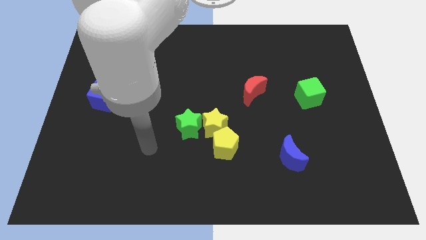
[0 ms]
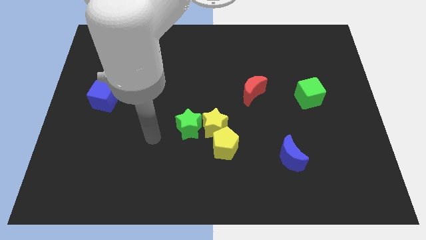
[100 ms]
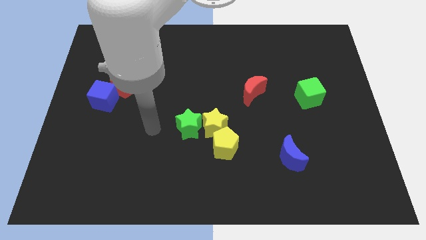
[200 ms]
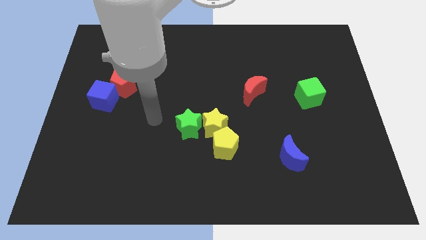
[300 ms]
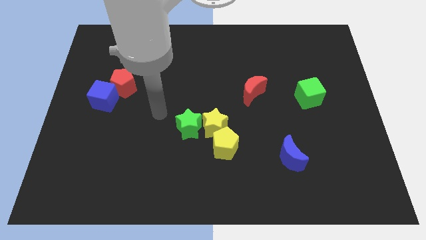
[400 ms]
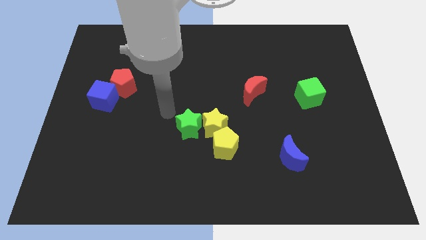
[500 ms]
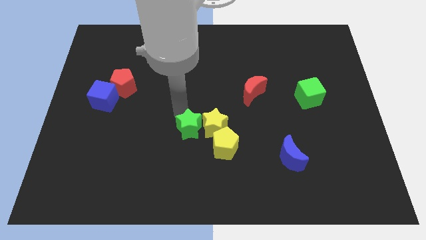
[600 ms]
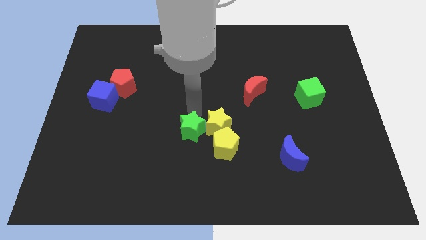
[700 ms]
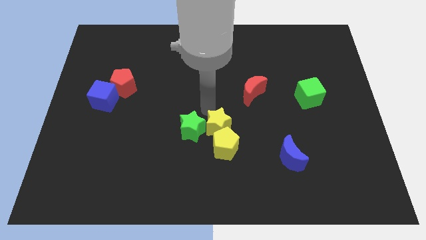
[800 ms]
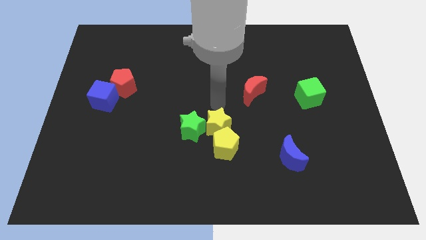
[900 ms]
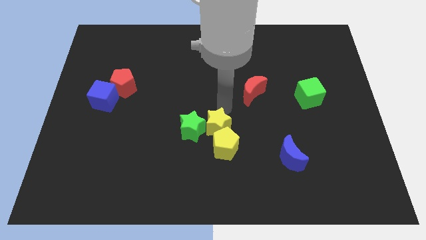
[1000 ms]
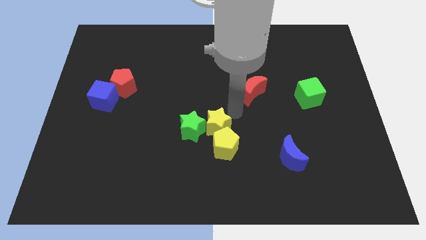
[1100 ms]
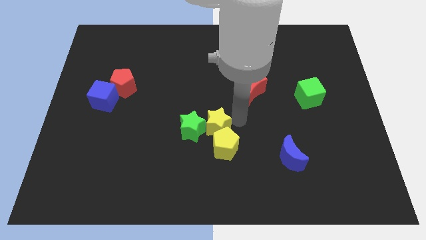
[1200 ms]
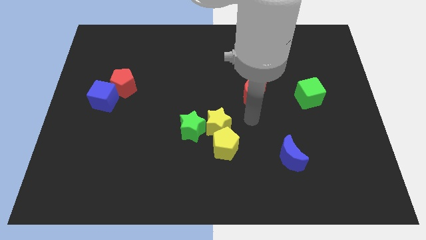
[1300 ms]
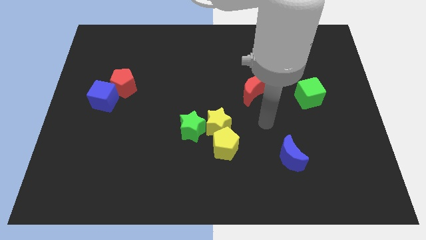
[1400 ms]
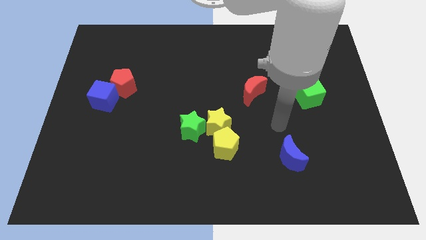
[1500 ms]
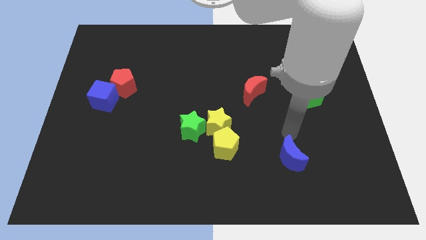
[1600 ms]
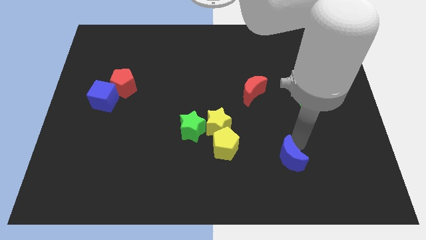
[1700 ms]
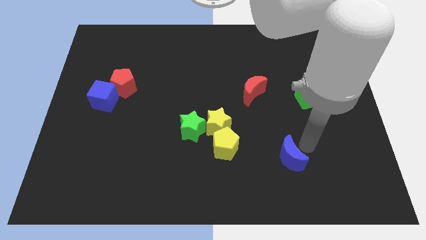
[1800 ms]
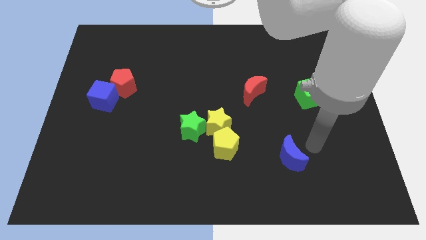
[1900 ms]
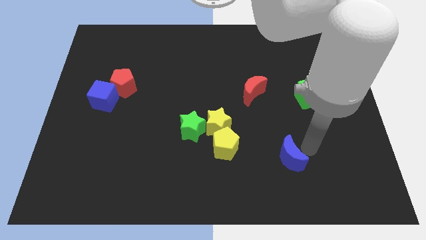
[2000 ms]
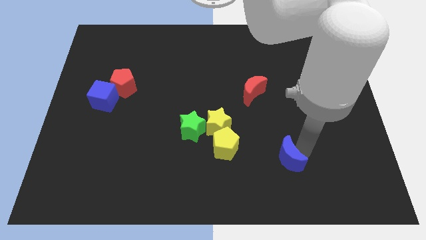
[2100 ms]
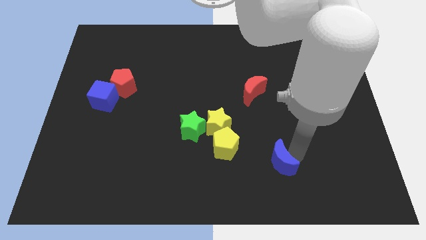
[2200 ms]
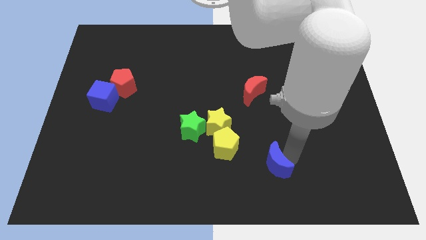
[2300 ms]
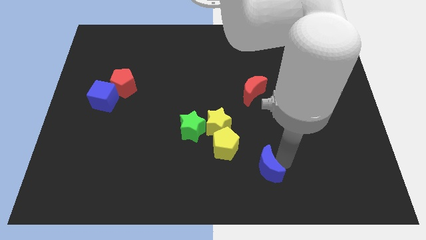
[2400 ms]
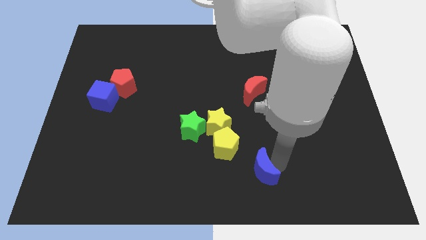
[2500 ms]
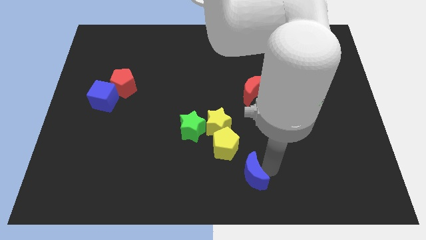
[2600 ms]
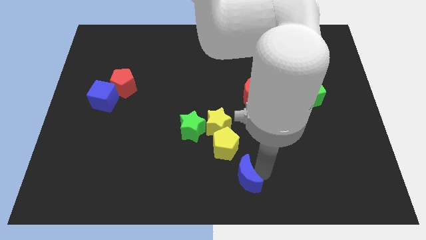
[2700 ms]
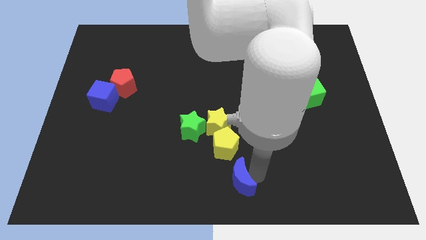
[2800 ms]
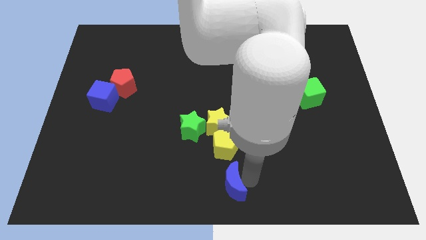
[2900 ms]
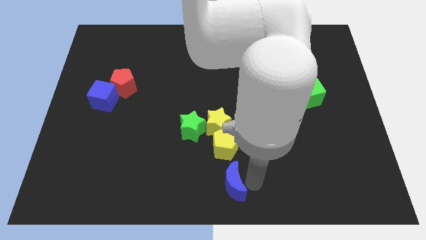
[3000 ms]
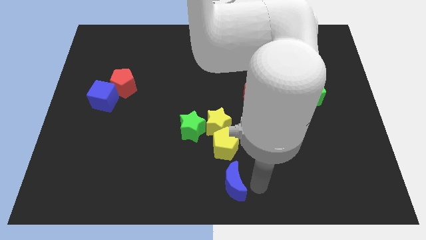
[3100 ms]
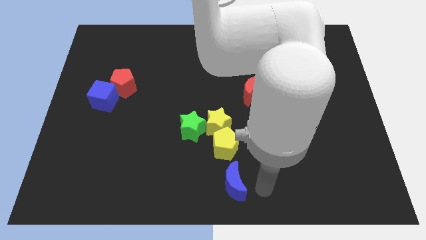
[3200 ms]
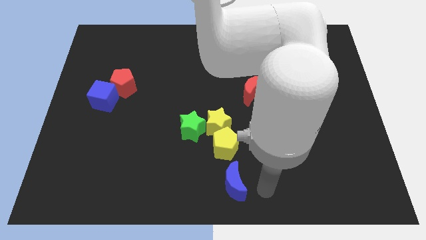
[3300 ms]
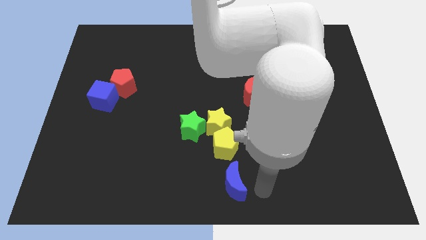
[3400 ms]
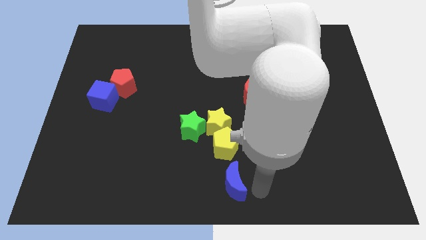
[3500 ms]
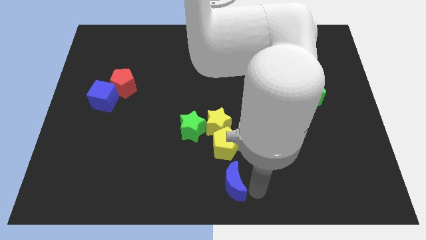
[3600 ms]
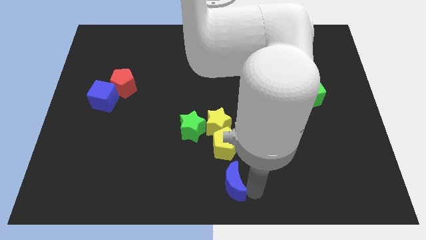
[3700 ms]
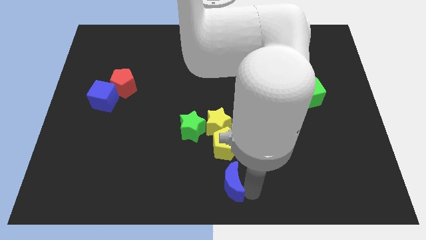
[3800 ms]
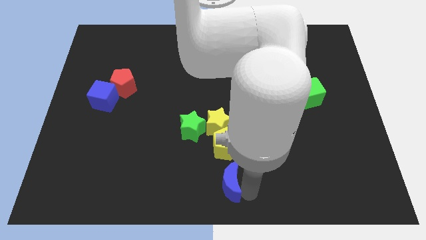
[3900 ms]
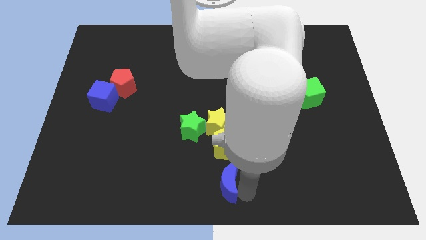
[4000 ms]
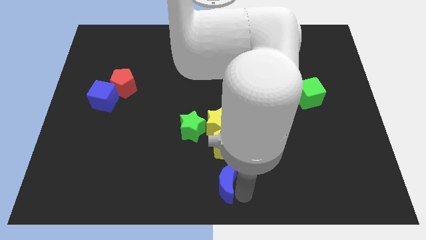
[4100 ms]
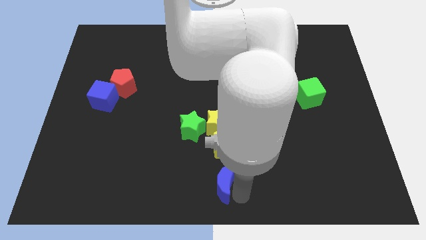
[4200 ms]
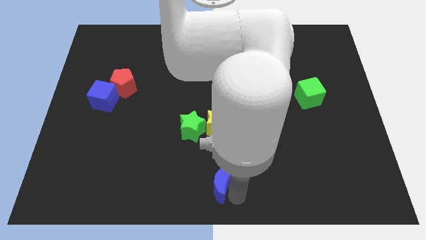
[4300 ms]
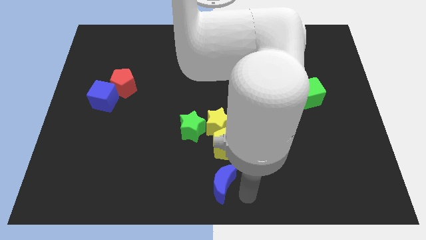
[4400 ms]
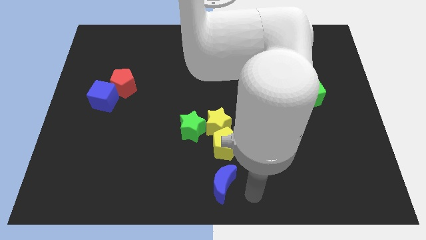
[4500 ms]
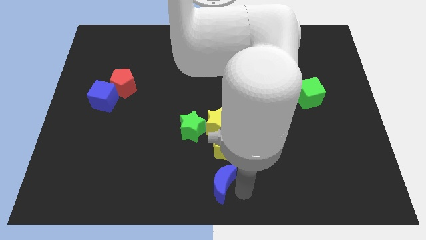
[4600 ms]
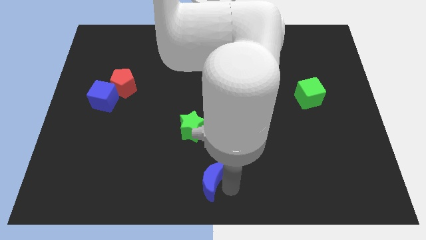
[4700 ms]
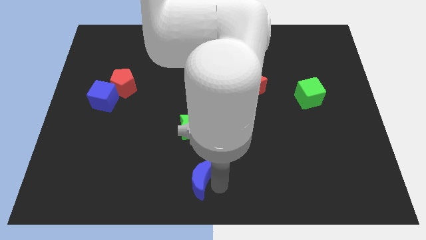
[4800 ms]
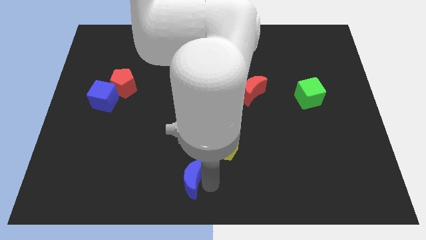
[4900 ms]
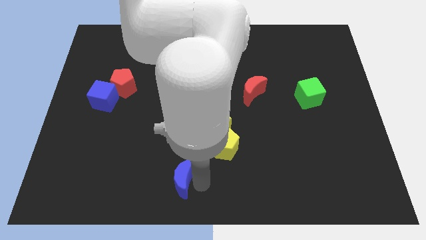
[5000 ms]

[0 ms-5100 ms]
move the blue moon to the left

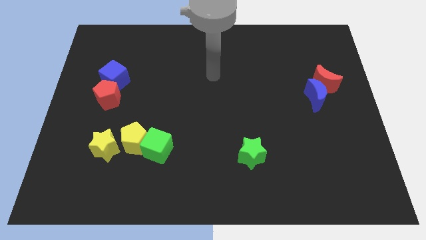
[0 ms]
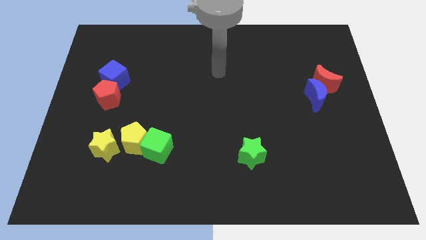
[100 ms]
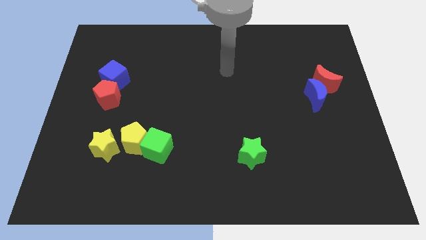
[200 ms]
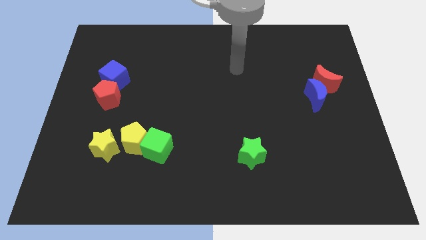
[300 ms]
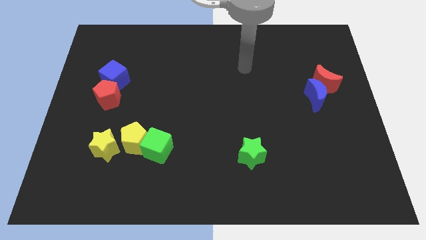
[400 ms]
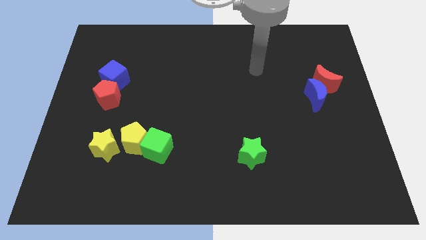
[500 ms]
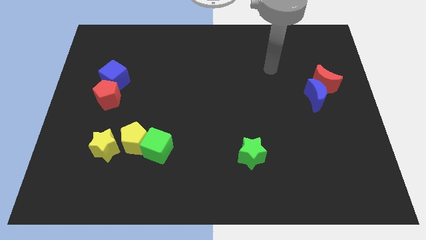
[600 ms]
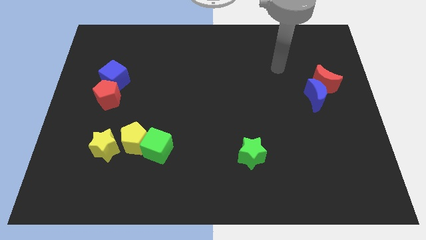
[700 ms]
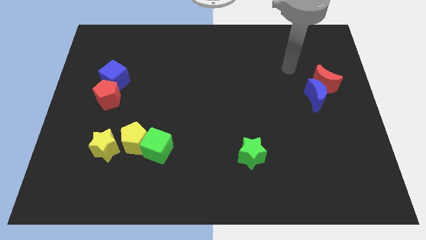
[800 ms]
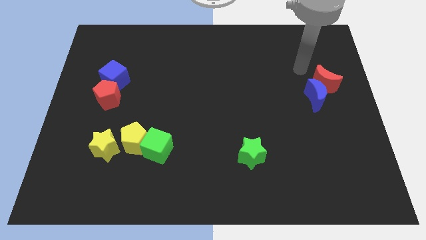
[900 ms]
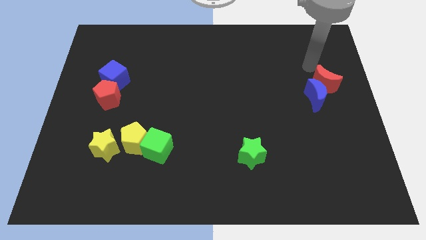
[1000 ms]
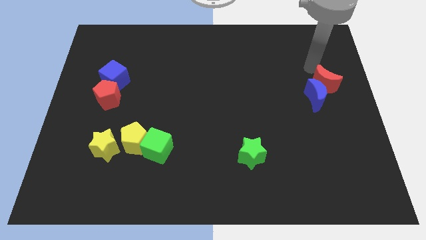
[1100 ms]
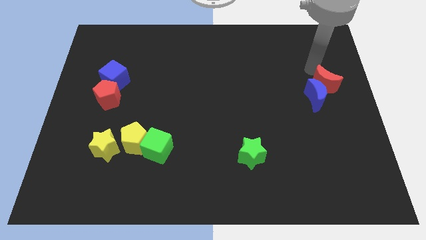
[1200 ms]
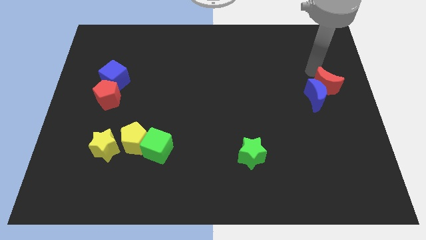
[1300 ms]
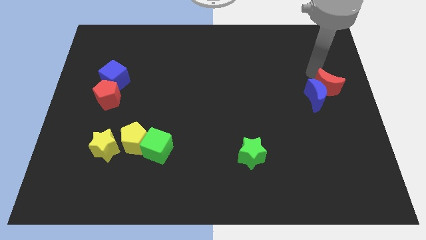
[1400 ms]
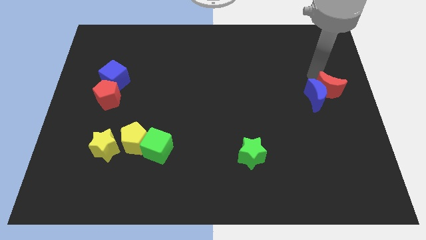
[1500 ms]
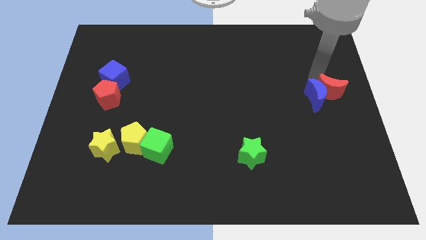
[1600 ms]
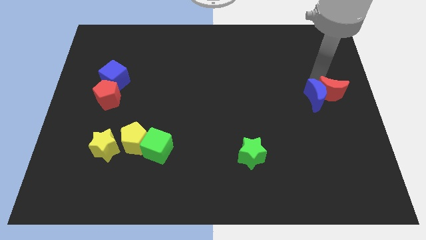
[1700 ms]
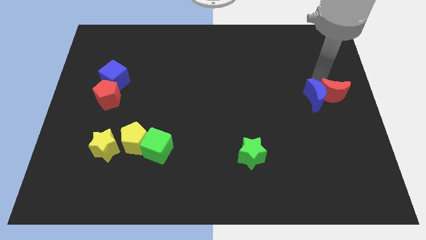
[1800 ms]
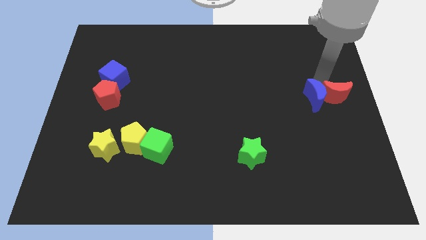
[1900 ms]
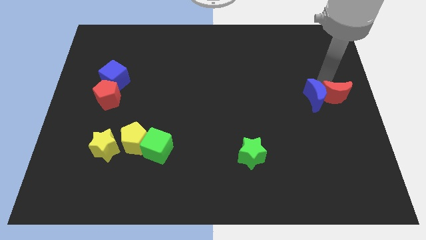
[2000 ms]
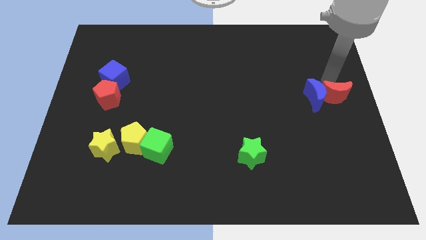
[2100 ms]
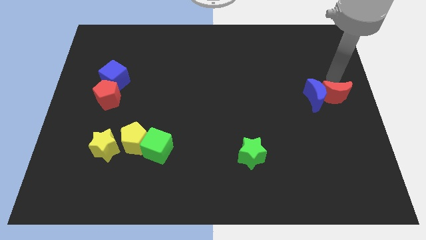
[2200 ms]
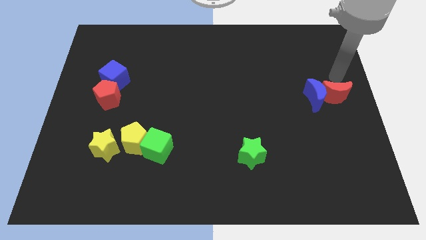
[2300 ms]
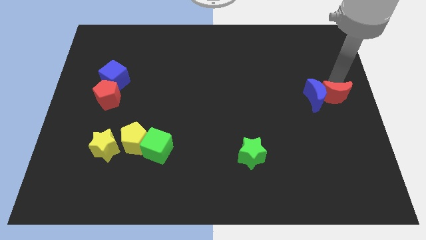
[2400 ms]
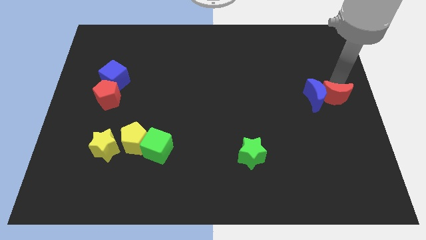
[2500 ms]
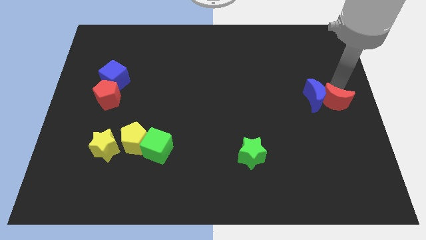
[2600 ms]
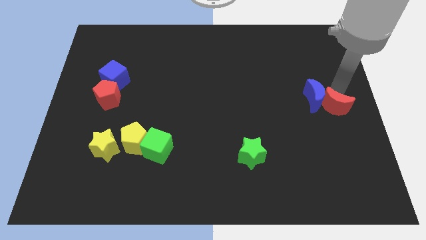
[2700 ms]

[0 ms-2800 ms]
slide the red moon somewhat downwards

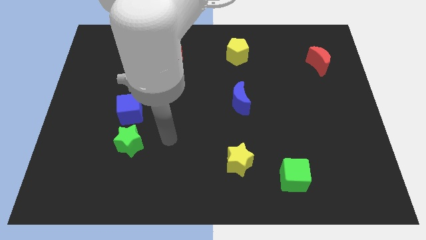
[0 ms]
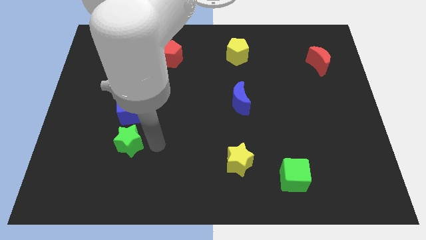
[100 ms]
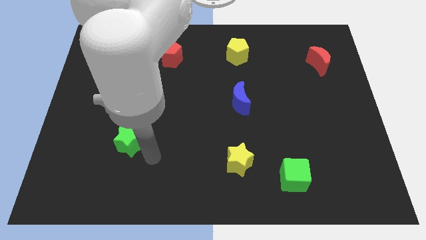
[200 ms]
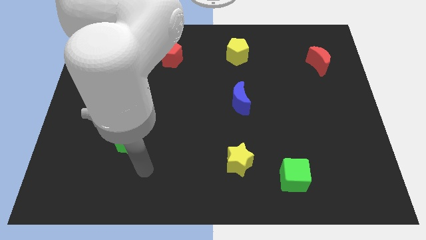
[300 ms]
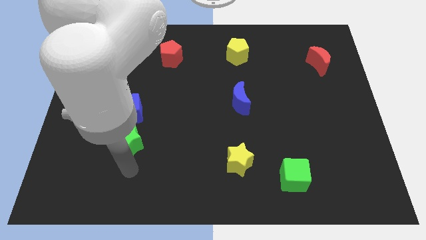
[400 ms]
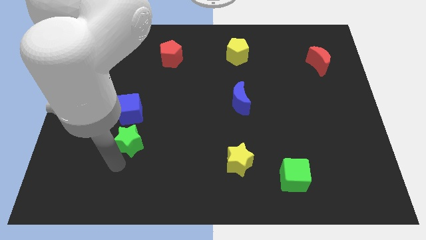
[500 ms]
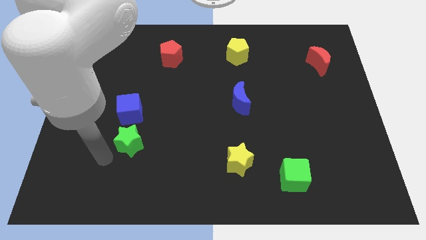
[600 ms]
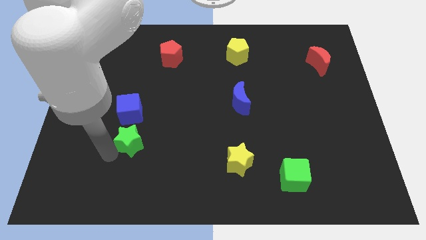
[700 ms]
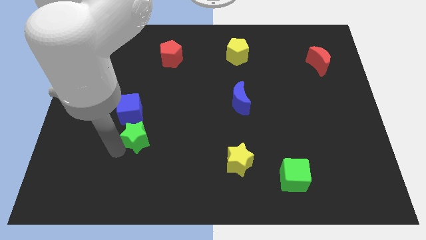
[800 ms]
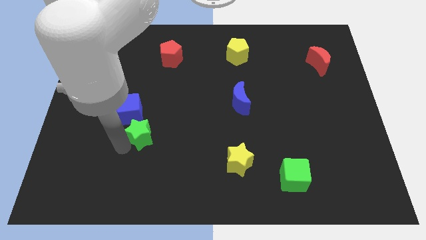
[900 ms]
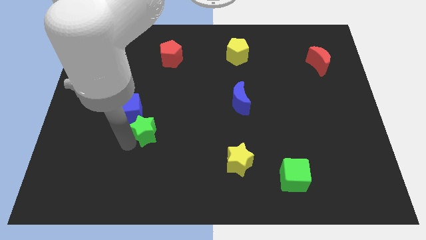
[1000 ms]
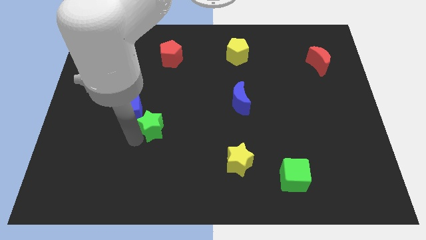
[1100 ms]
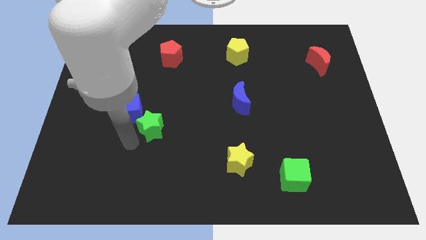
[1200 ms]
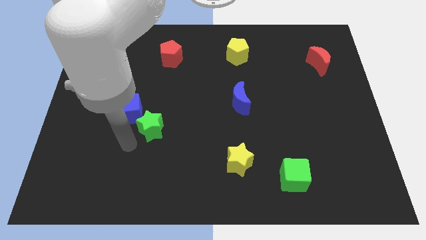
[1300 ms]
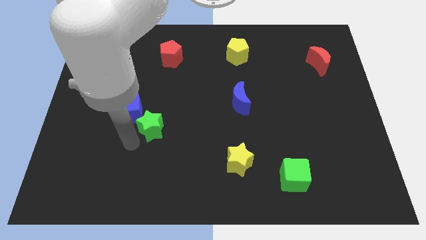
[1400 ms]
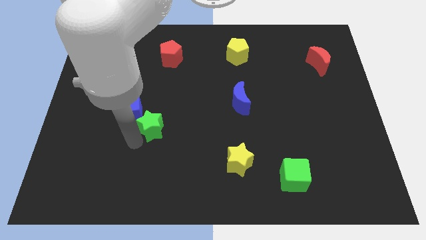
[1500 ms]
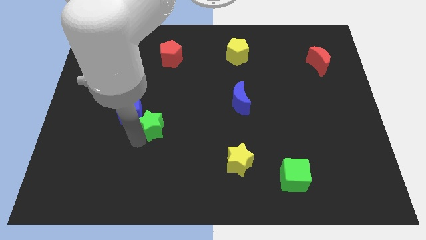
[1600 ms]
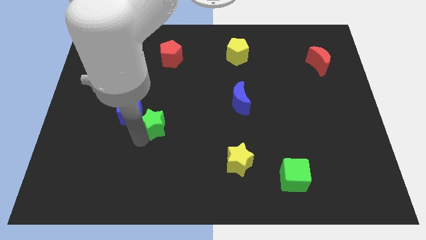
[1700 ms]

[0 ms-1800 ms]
slightly slide the green star diagonally upwards and right
